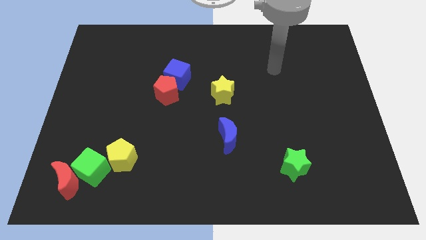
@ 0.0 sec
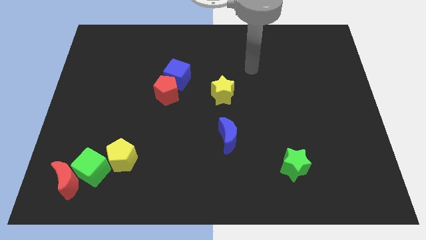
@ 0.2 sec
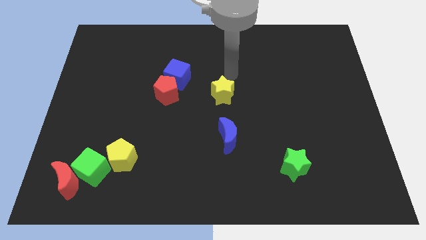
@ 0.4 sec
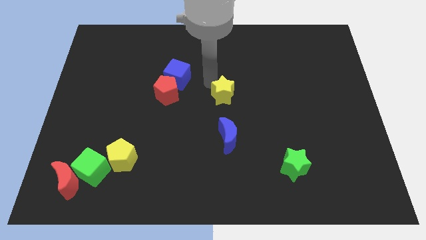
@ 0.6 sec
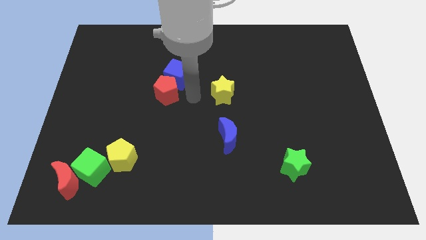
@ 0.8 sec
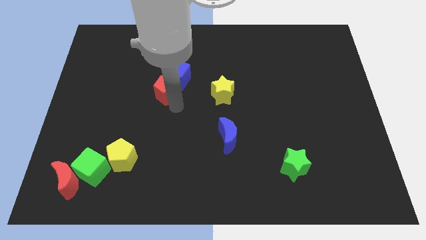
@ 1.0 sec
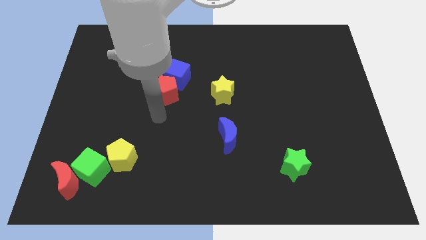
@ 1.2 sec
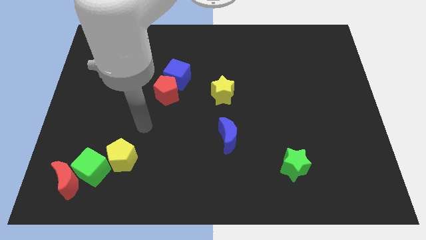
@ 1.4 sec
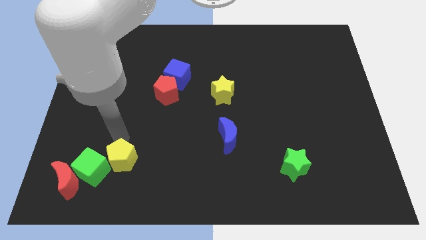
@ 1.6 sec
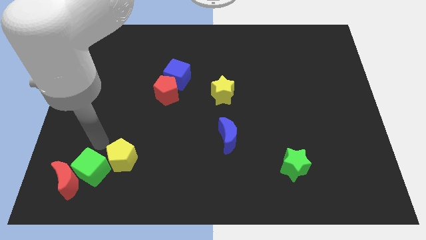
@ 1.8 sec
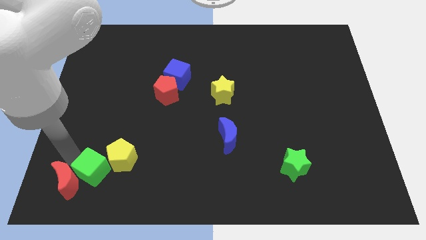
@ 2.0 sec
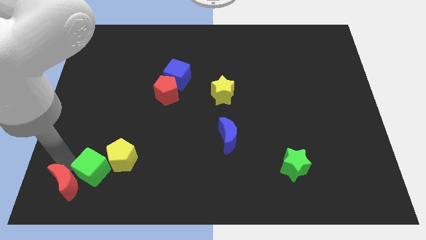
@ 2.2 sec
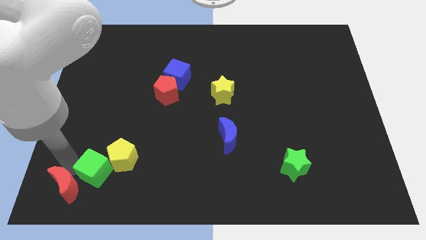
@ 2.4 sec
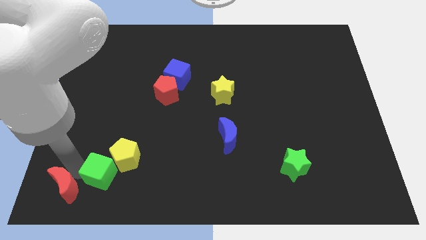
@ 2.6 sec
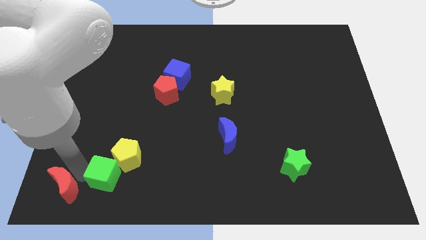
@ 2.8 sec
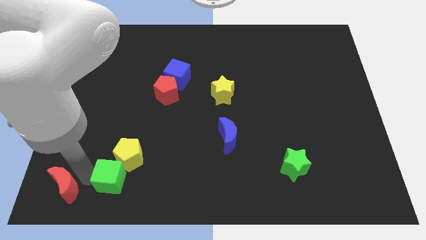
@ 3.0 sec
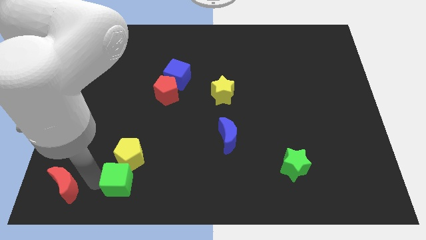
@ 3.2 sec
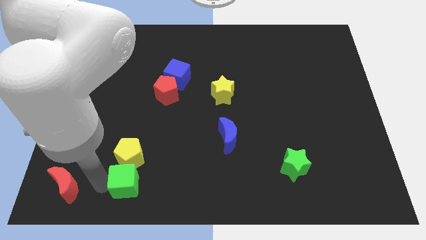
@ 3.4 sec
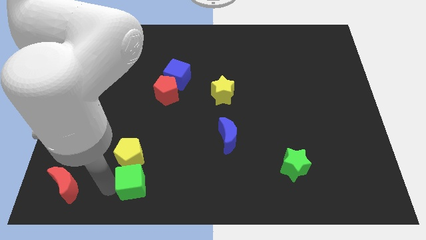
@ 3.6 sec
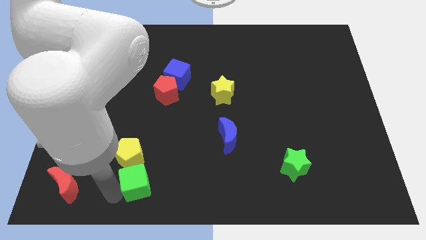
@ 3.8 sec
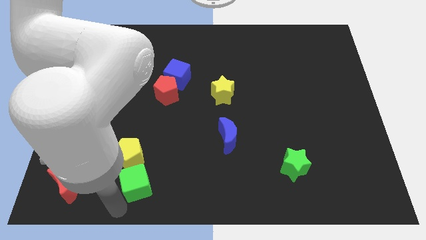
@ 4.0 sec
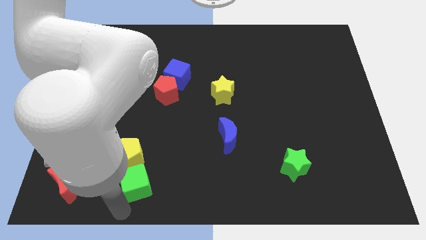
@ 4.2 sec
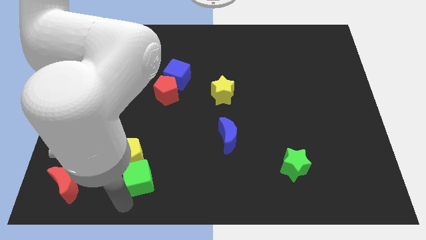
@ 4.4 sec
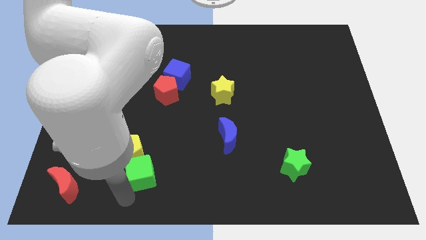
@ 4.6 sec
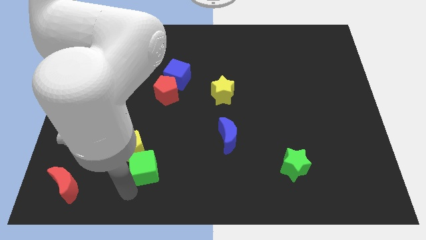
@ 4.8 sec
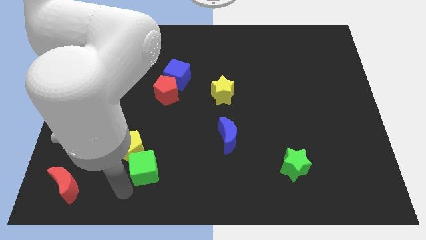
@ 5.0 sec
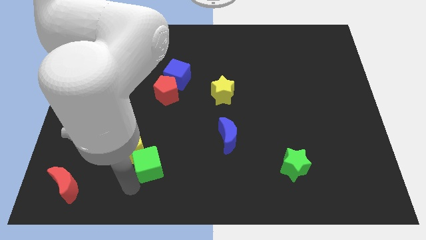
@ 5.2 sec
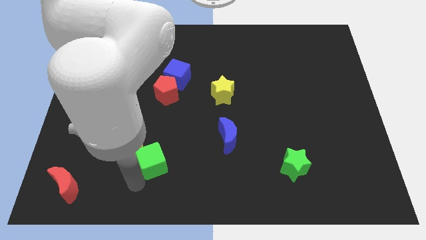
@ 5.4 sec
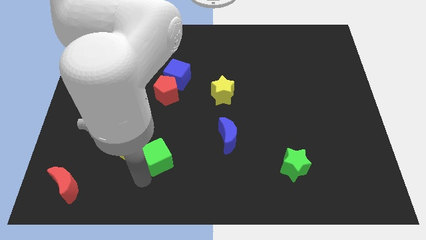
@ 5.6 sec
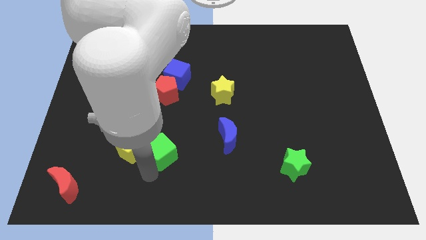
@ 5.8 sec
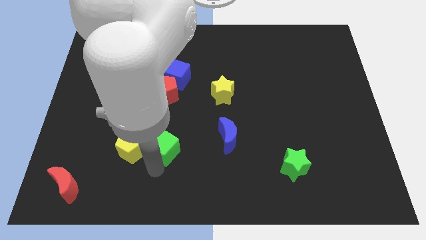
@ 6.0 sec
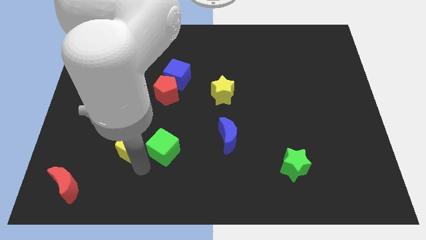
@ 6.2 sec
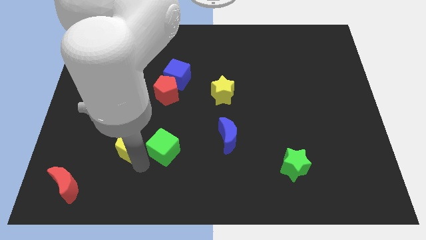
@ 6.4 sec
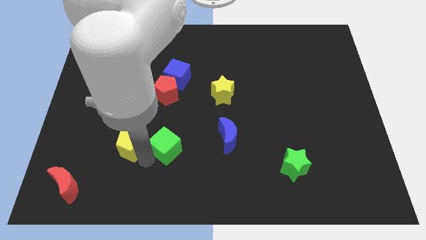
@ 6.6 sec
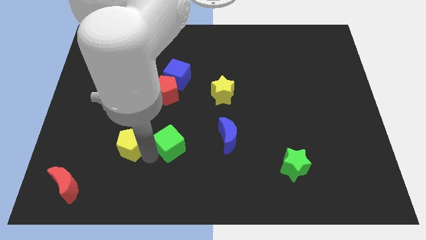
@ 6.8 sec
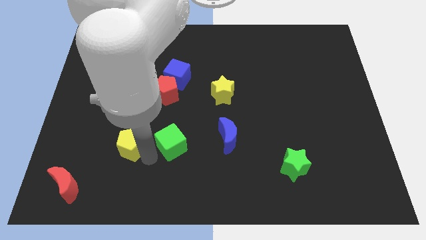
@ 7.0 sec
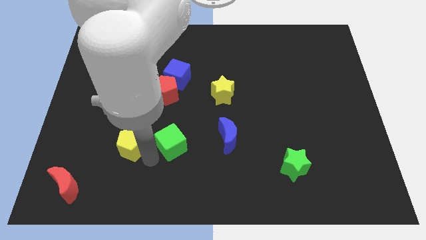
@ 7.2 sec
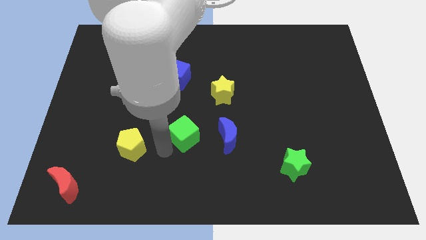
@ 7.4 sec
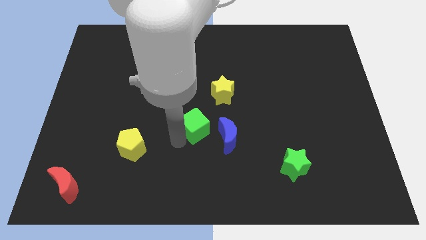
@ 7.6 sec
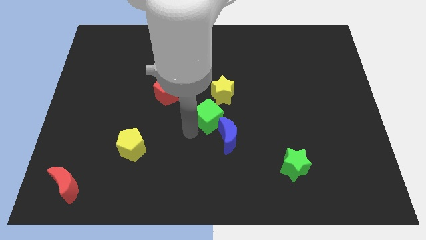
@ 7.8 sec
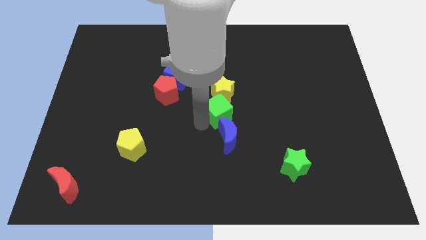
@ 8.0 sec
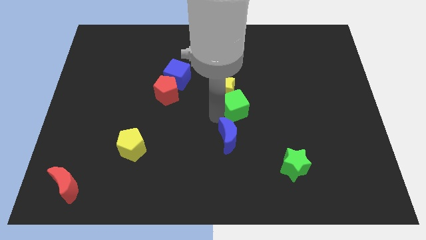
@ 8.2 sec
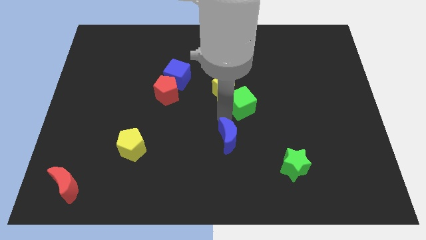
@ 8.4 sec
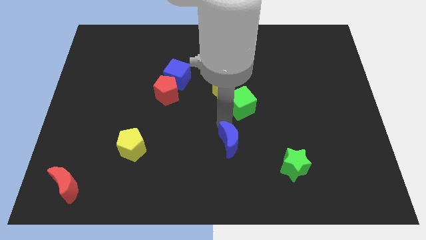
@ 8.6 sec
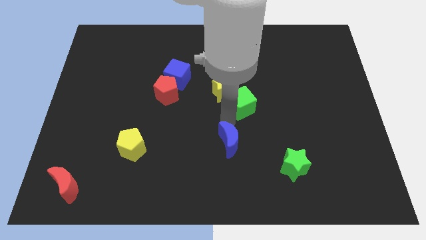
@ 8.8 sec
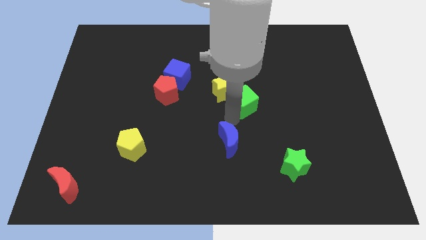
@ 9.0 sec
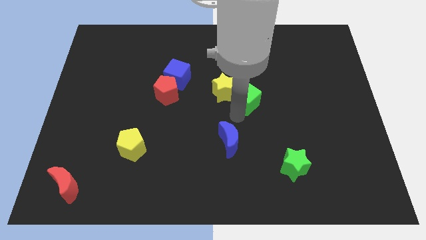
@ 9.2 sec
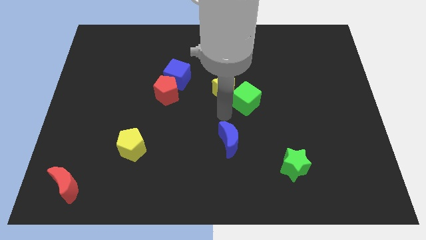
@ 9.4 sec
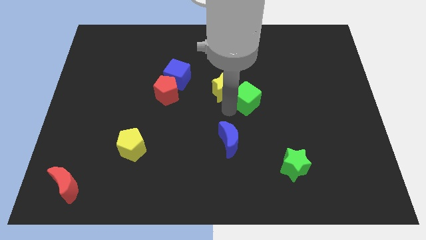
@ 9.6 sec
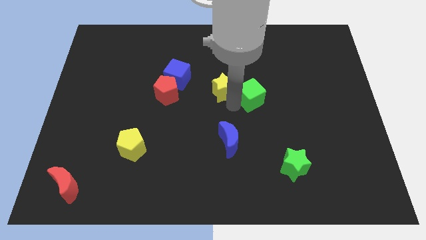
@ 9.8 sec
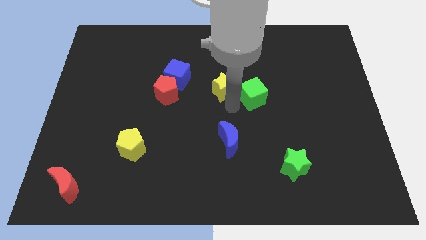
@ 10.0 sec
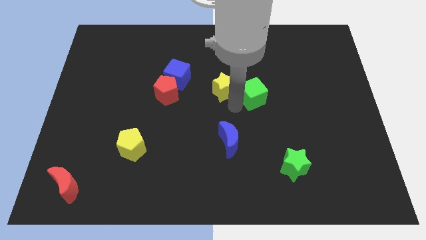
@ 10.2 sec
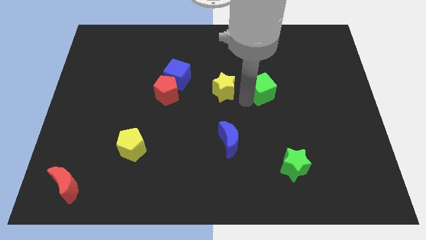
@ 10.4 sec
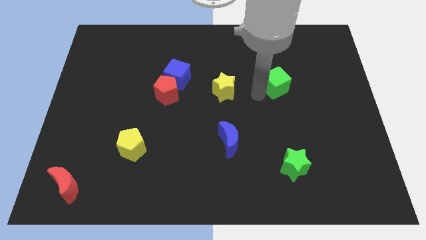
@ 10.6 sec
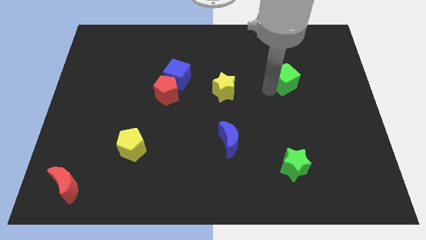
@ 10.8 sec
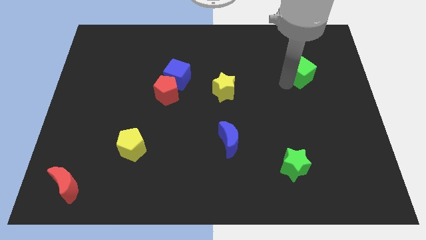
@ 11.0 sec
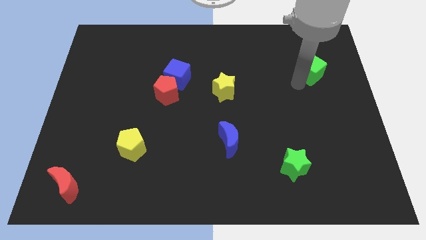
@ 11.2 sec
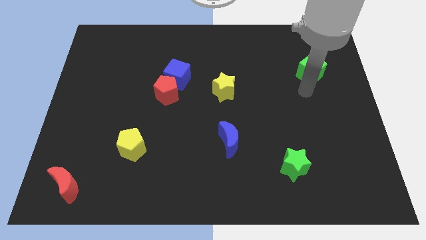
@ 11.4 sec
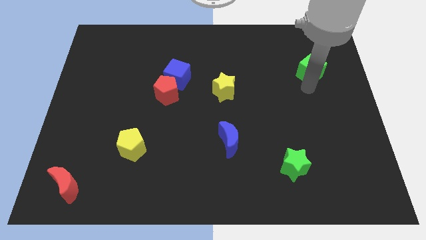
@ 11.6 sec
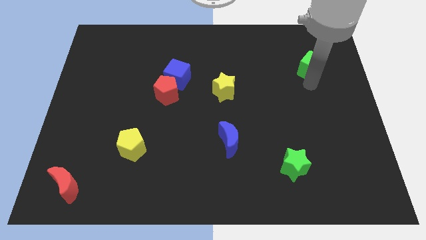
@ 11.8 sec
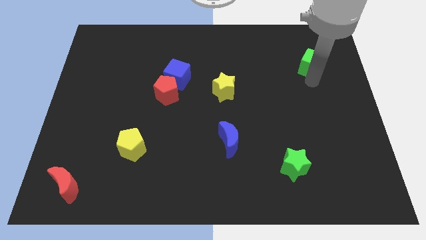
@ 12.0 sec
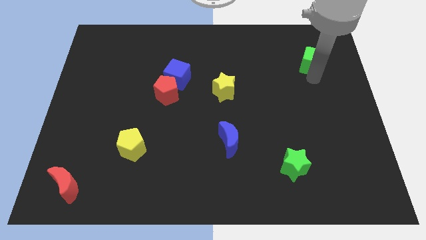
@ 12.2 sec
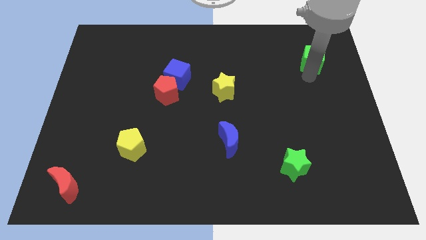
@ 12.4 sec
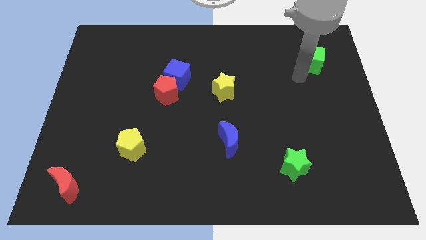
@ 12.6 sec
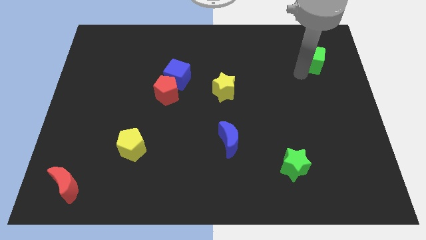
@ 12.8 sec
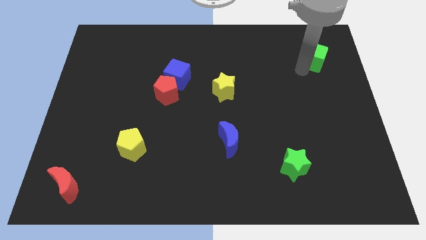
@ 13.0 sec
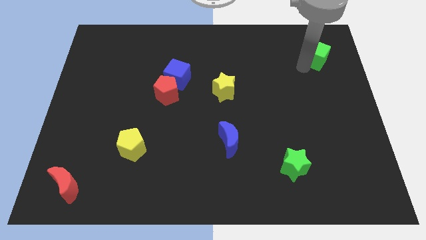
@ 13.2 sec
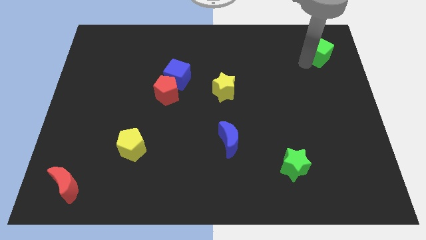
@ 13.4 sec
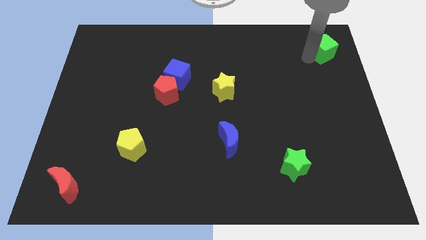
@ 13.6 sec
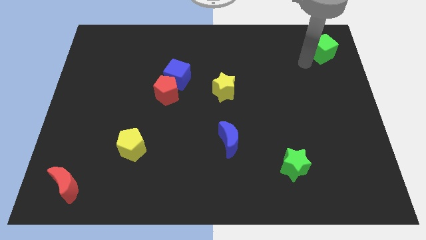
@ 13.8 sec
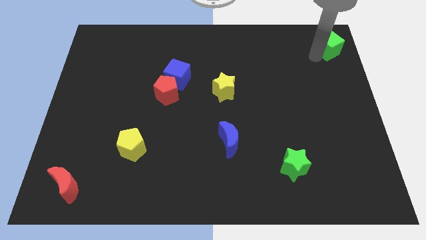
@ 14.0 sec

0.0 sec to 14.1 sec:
move the green cube to the upper right corner
